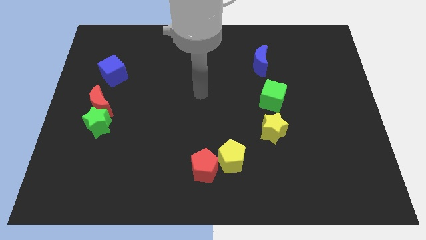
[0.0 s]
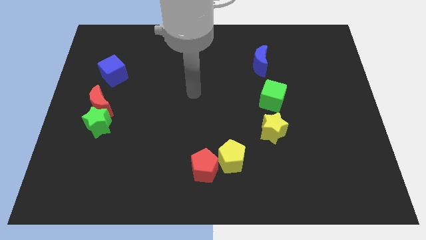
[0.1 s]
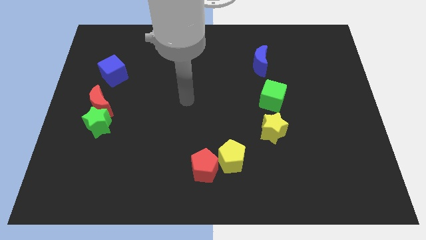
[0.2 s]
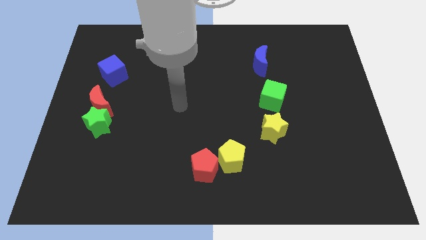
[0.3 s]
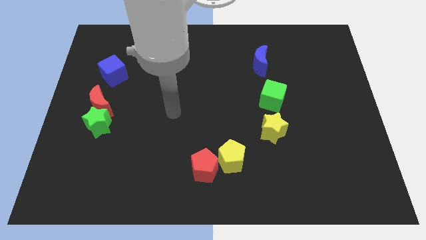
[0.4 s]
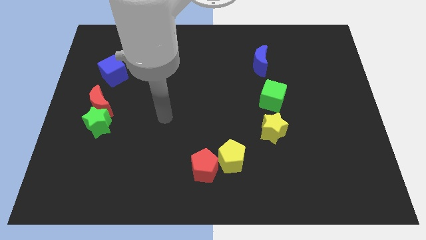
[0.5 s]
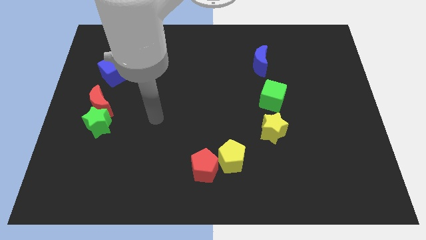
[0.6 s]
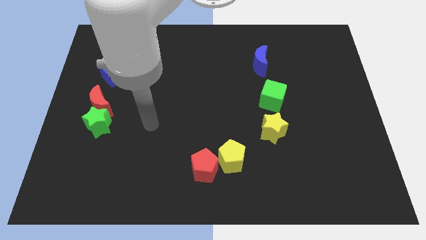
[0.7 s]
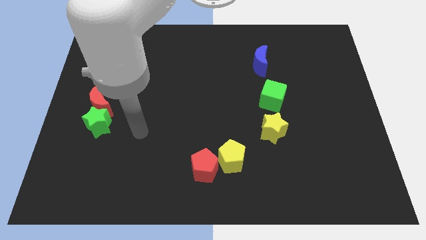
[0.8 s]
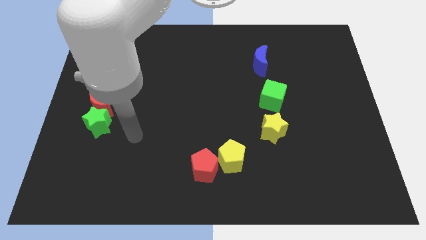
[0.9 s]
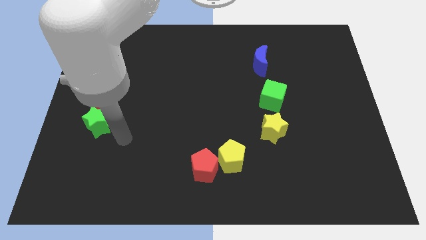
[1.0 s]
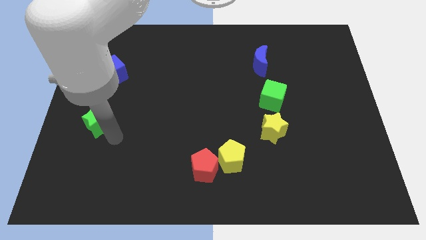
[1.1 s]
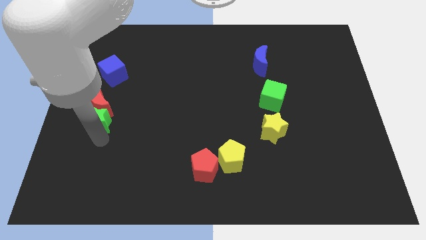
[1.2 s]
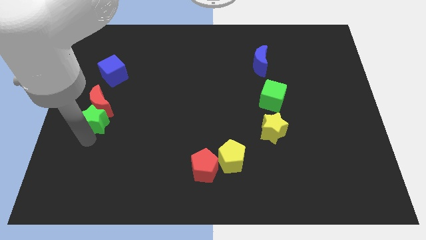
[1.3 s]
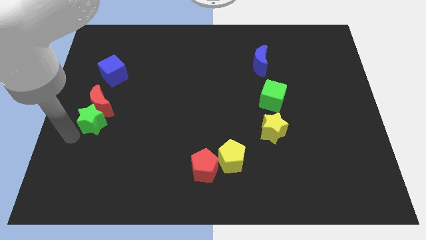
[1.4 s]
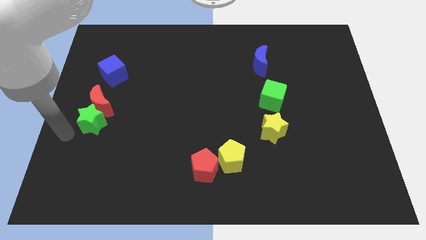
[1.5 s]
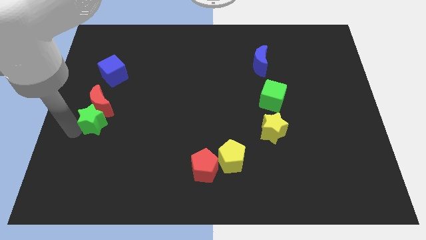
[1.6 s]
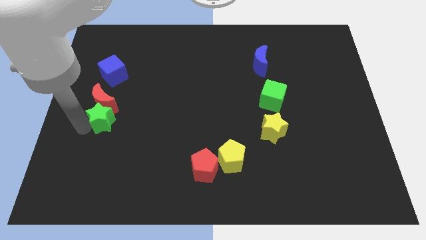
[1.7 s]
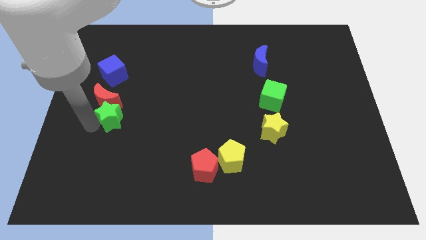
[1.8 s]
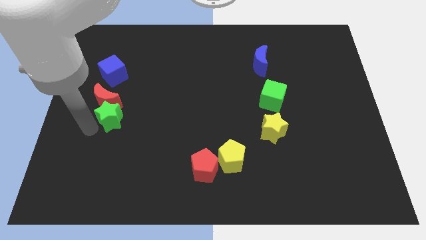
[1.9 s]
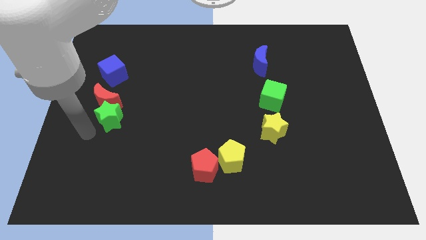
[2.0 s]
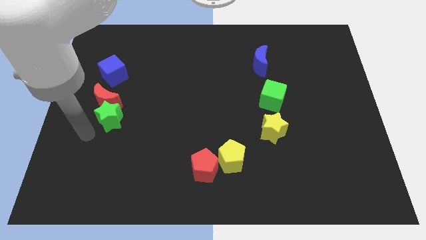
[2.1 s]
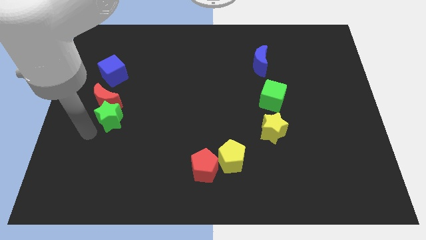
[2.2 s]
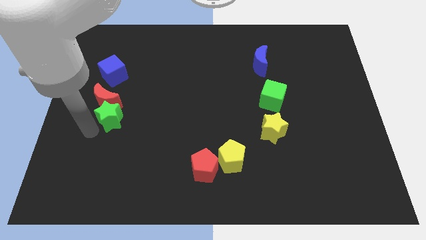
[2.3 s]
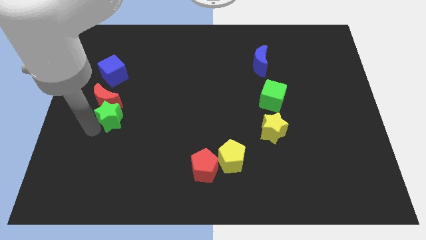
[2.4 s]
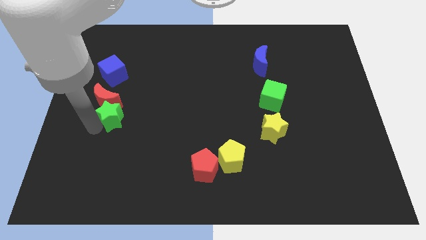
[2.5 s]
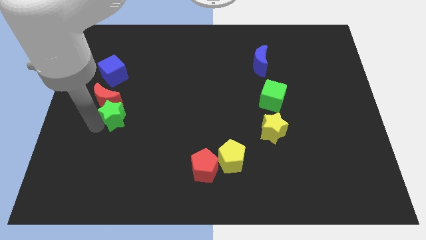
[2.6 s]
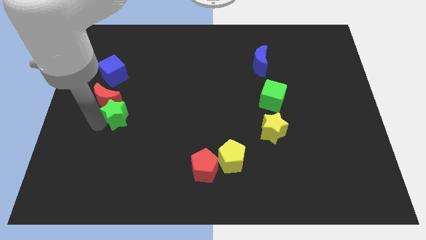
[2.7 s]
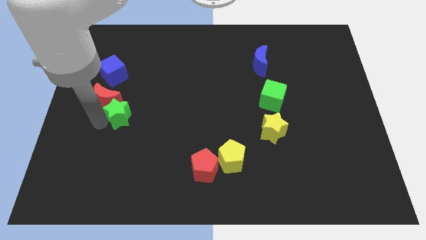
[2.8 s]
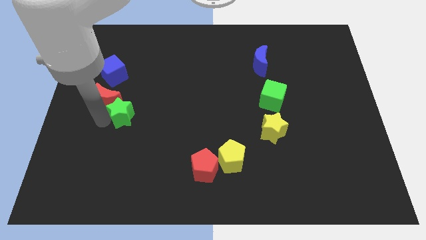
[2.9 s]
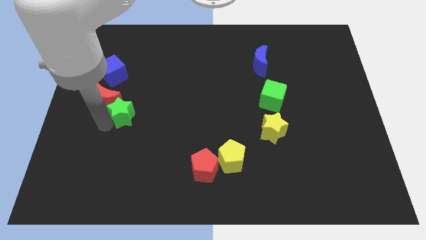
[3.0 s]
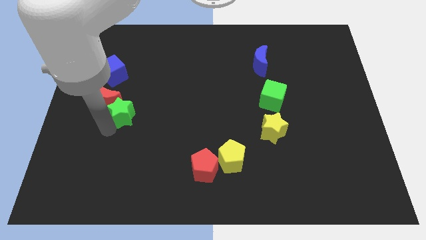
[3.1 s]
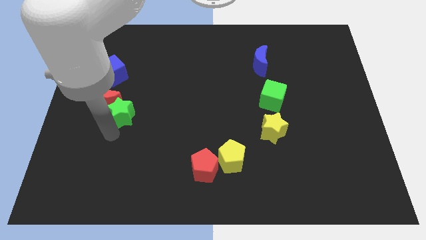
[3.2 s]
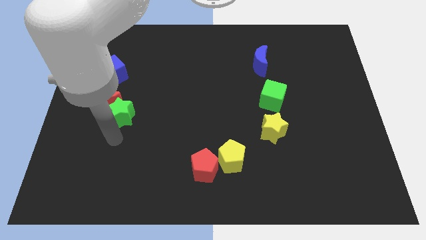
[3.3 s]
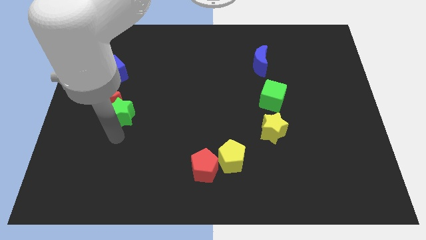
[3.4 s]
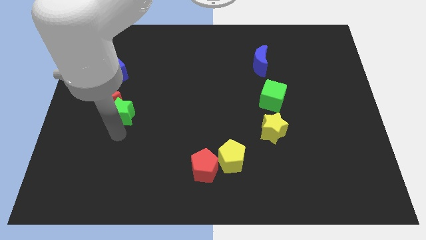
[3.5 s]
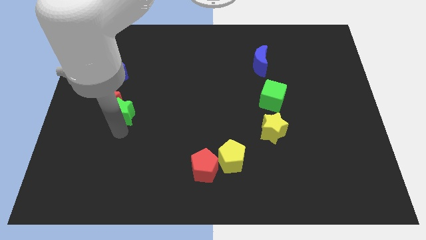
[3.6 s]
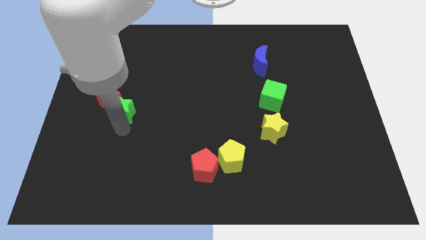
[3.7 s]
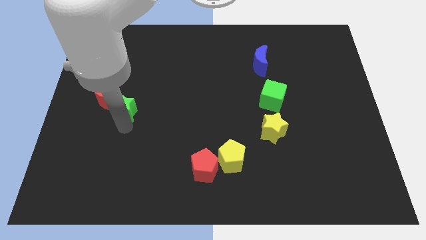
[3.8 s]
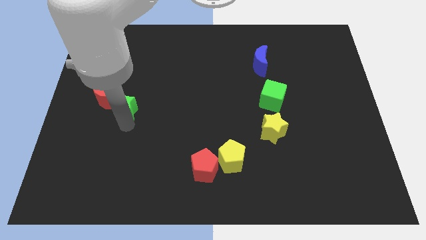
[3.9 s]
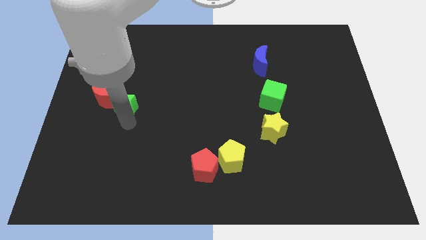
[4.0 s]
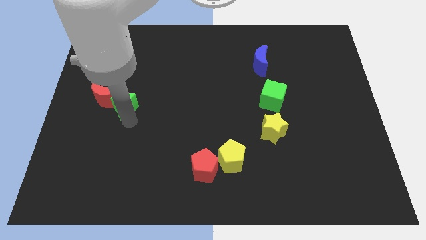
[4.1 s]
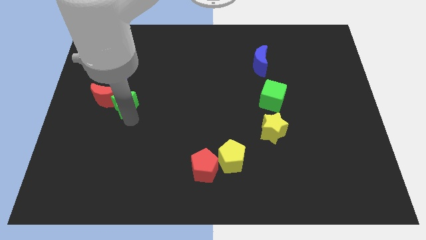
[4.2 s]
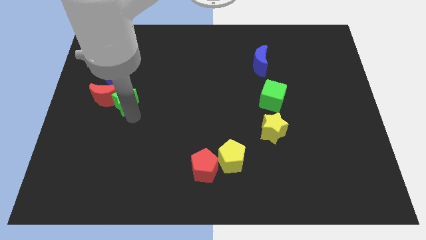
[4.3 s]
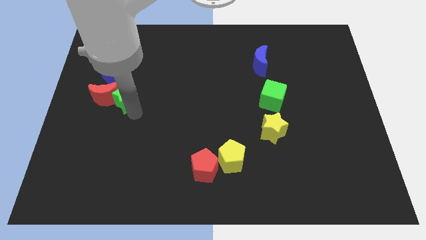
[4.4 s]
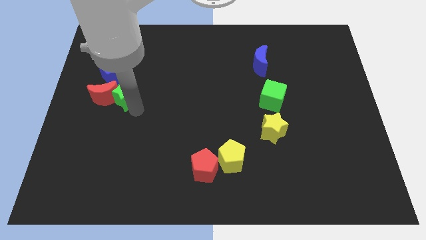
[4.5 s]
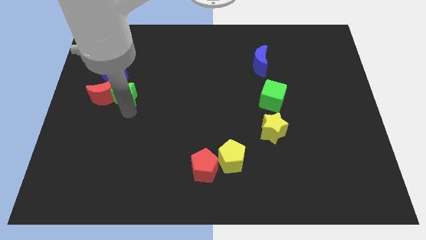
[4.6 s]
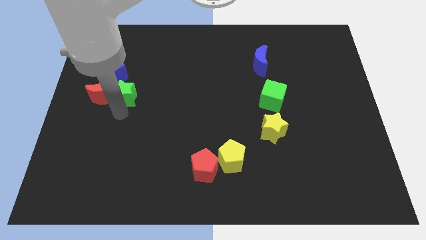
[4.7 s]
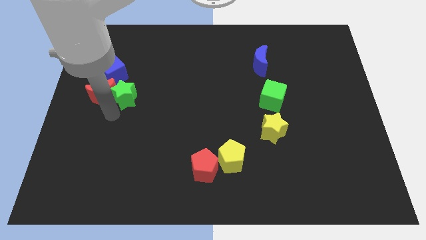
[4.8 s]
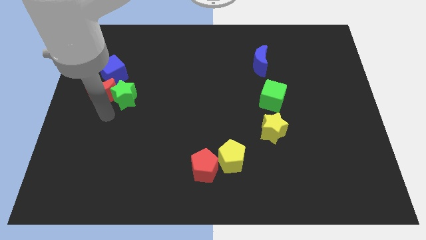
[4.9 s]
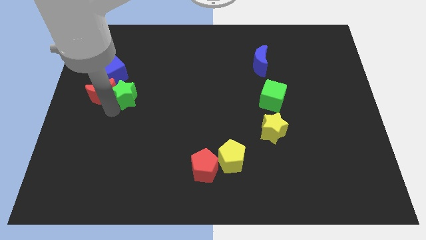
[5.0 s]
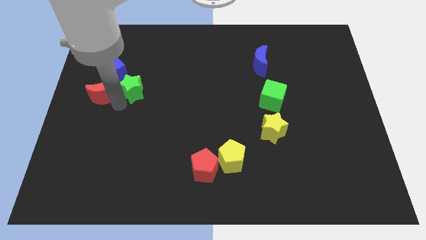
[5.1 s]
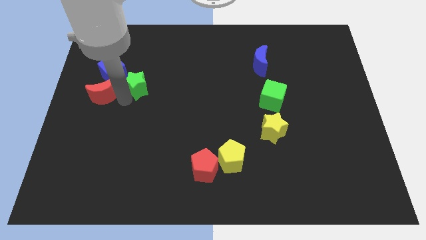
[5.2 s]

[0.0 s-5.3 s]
push the green star to the right side of the blue cube

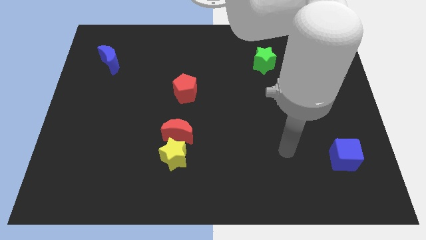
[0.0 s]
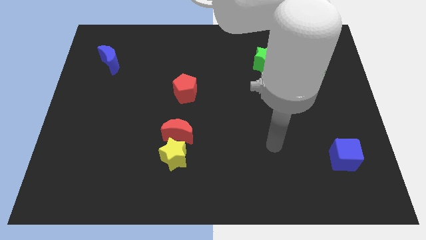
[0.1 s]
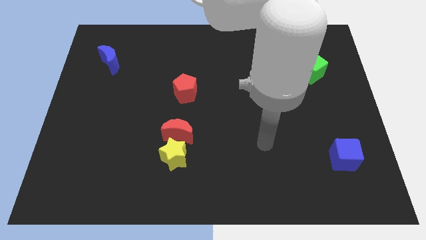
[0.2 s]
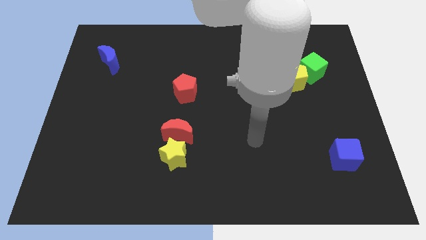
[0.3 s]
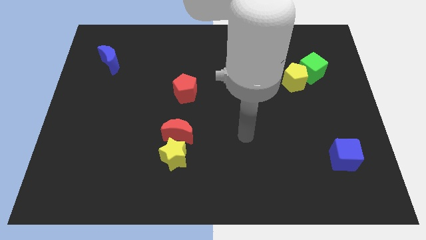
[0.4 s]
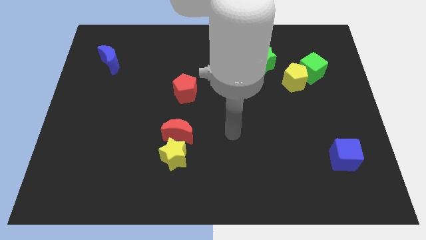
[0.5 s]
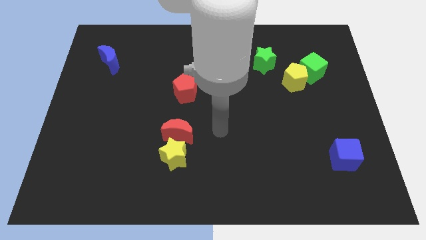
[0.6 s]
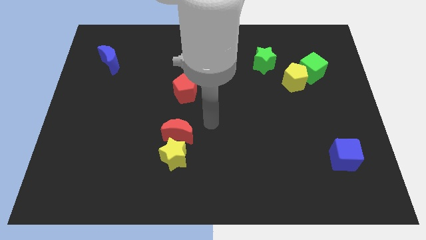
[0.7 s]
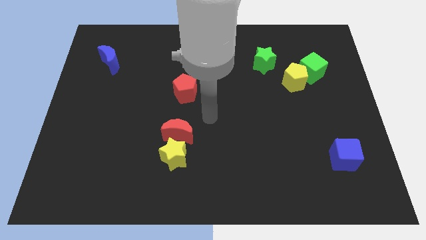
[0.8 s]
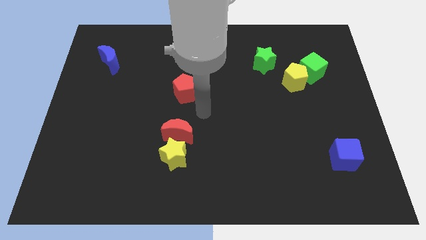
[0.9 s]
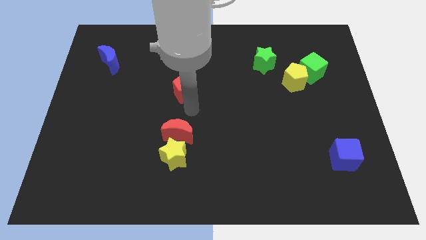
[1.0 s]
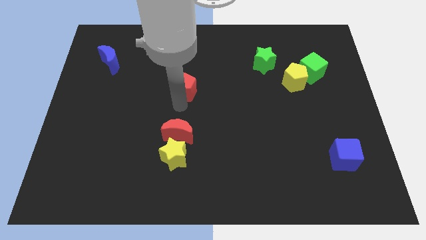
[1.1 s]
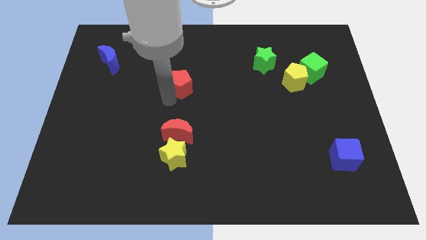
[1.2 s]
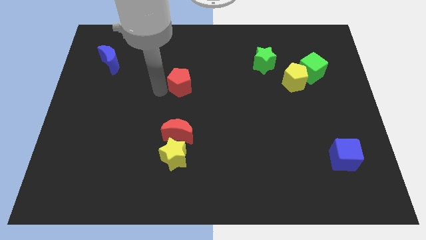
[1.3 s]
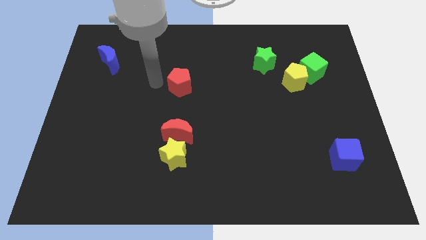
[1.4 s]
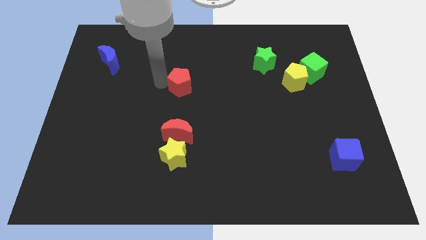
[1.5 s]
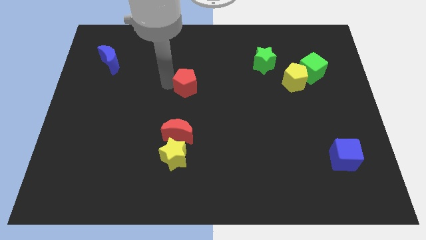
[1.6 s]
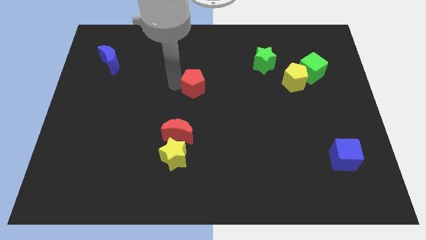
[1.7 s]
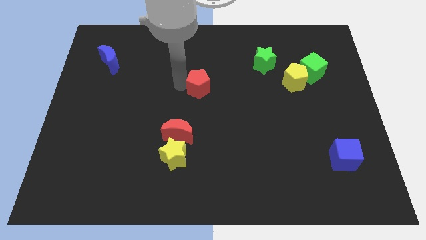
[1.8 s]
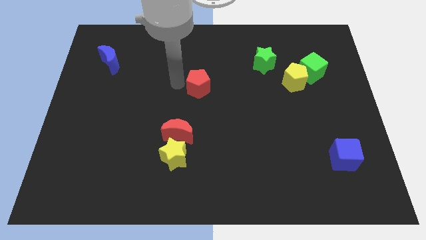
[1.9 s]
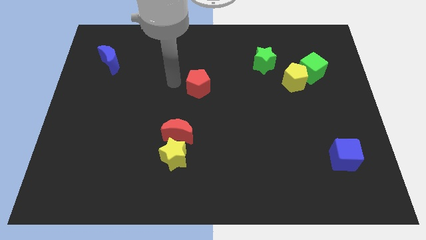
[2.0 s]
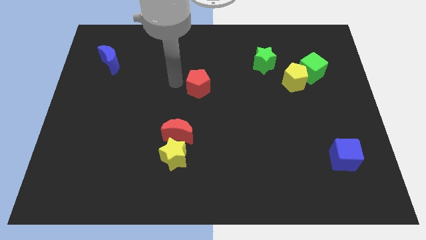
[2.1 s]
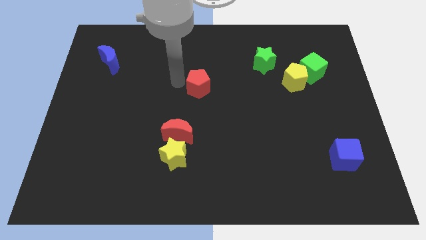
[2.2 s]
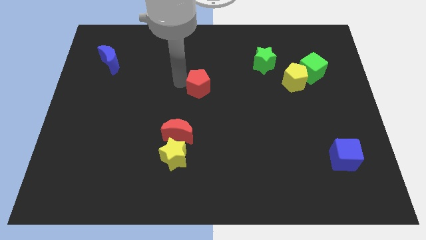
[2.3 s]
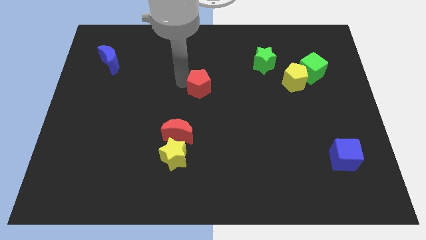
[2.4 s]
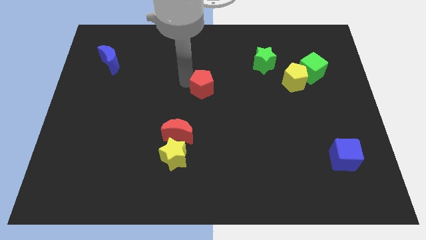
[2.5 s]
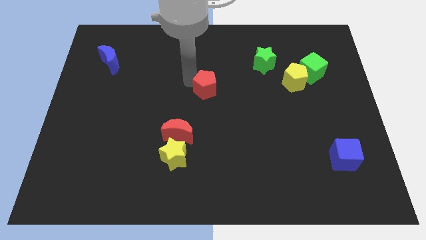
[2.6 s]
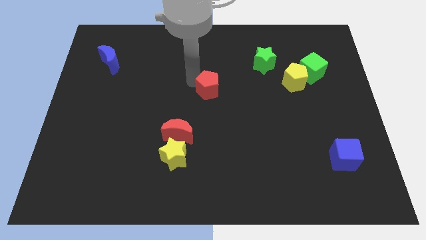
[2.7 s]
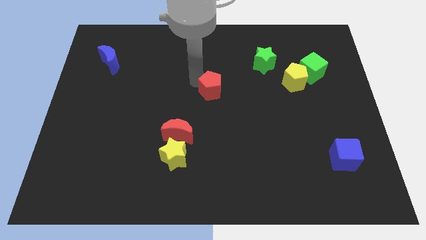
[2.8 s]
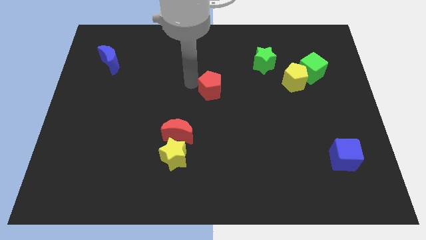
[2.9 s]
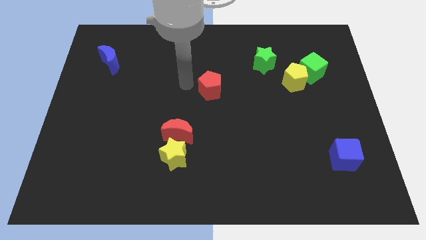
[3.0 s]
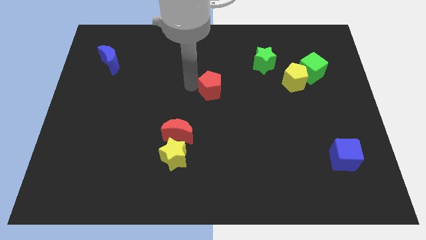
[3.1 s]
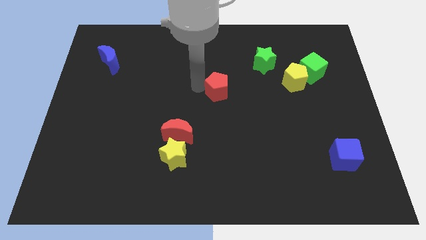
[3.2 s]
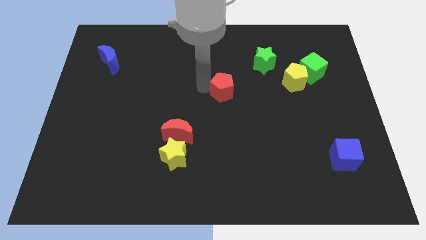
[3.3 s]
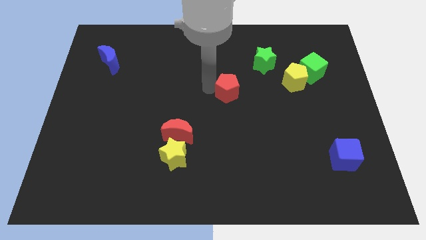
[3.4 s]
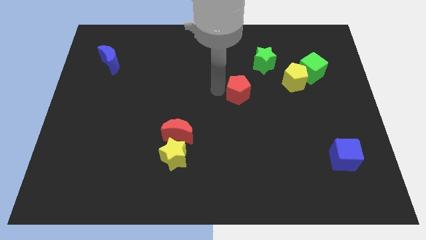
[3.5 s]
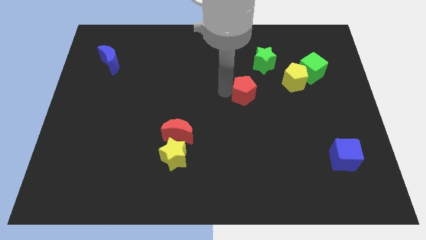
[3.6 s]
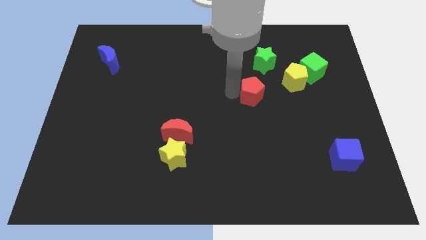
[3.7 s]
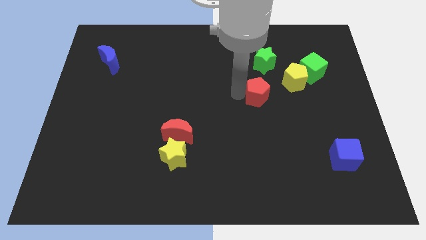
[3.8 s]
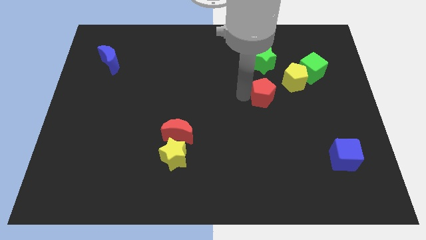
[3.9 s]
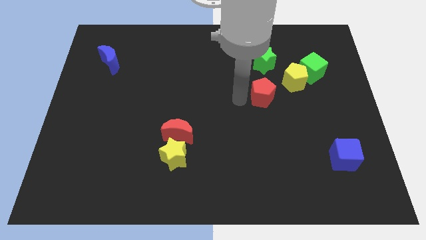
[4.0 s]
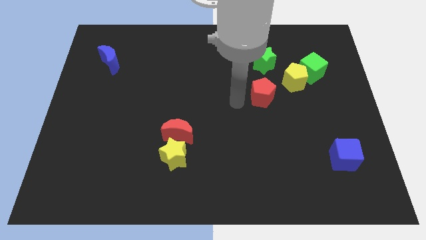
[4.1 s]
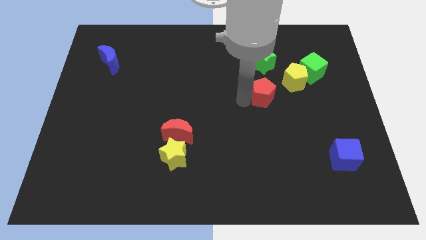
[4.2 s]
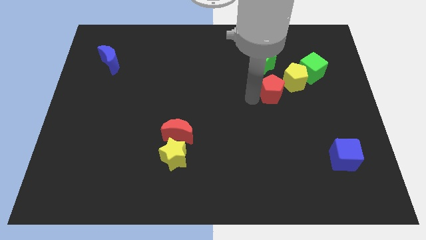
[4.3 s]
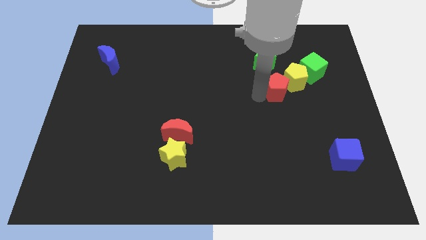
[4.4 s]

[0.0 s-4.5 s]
move the red pentagon to the bottom left of the green cube
